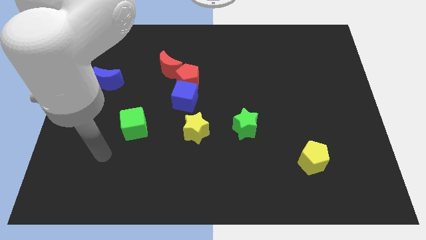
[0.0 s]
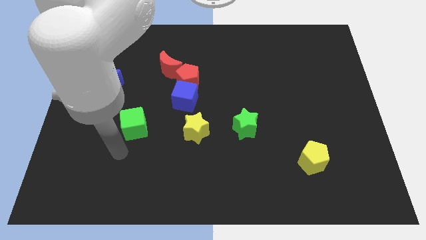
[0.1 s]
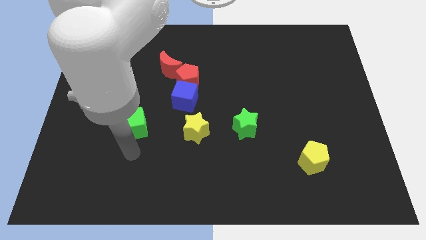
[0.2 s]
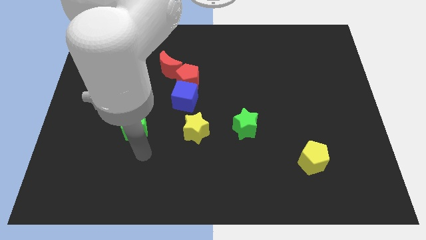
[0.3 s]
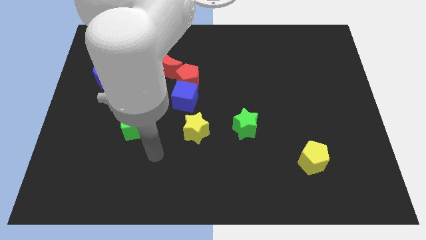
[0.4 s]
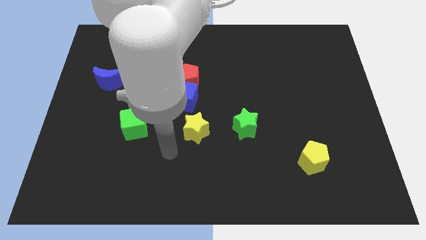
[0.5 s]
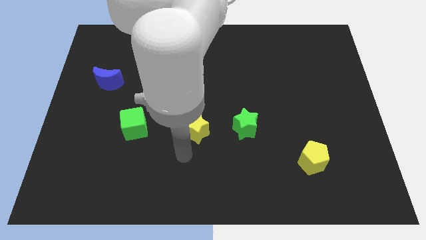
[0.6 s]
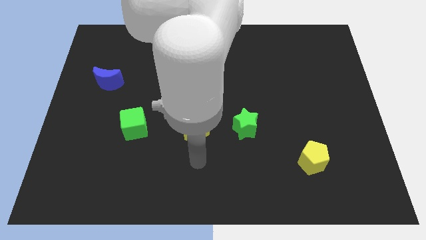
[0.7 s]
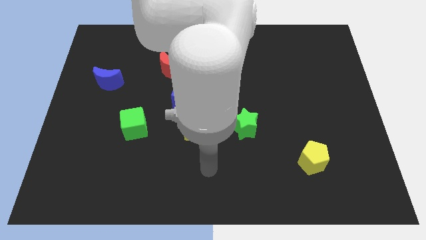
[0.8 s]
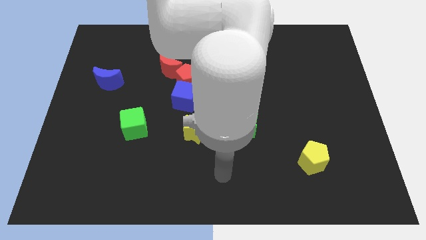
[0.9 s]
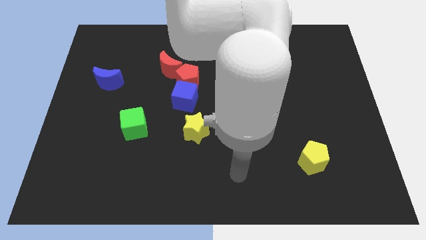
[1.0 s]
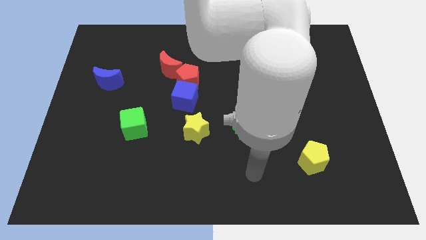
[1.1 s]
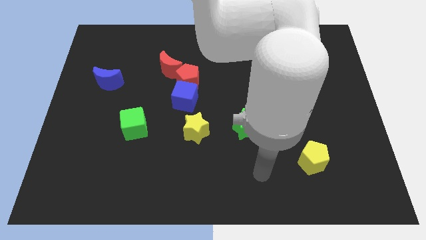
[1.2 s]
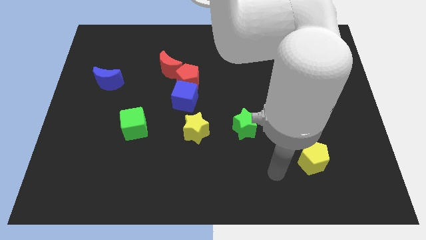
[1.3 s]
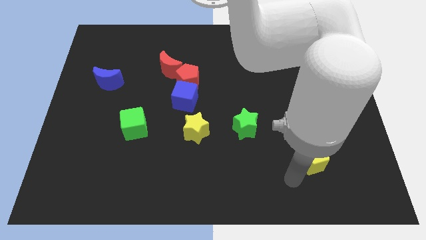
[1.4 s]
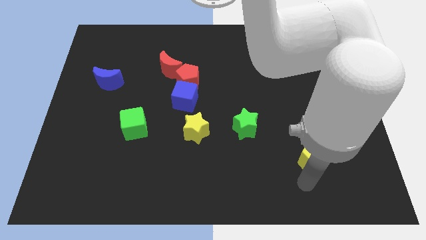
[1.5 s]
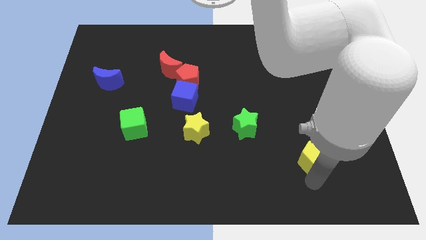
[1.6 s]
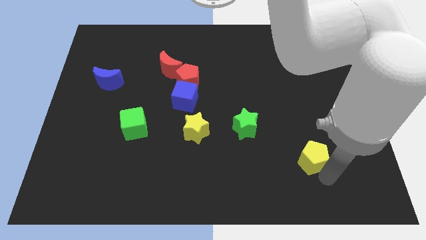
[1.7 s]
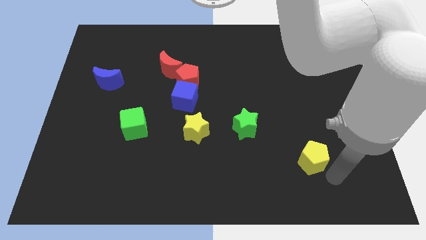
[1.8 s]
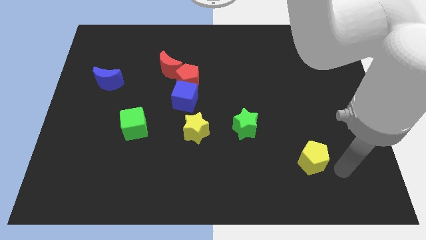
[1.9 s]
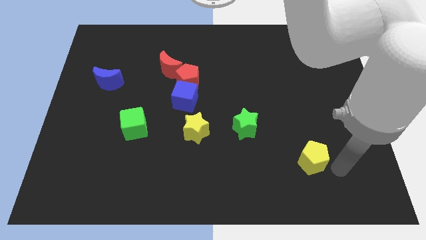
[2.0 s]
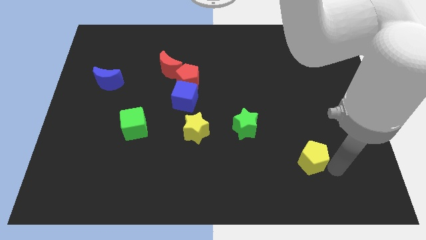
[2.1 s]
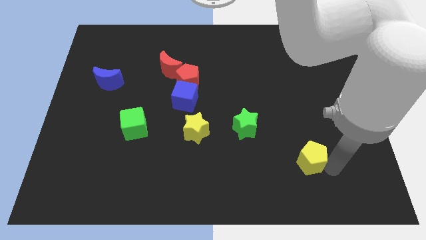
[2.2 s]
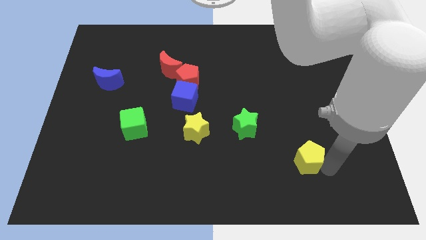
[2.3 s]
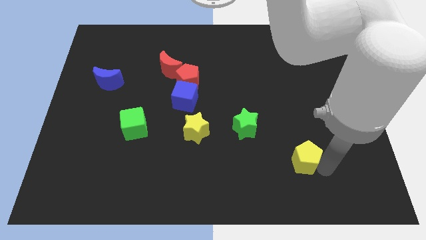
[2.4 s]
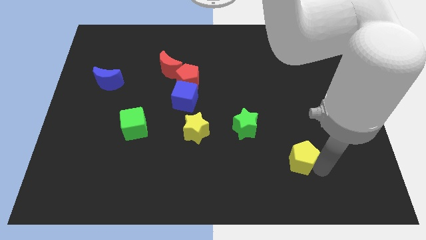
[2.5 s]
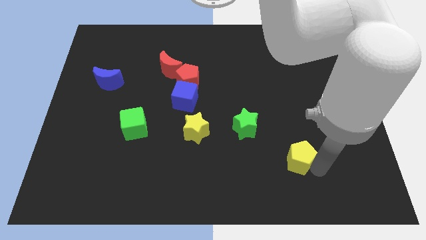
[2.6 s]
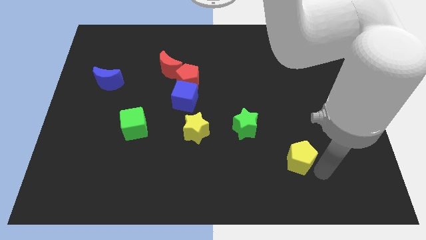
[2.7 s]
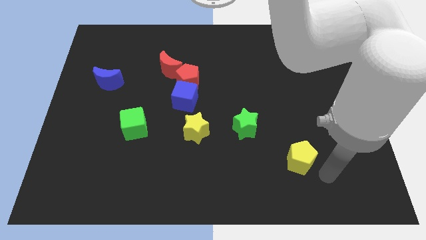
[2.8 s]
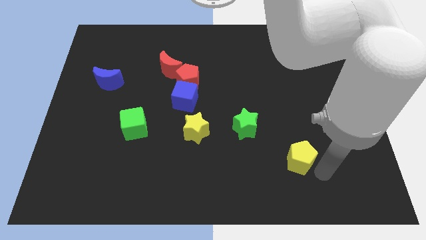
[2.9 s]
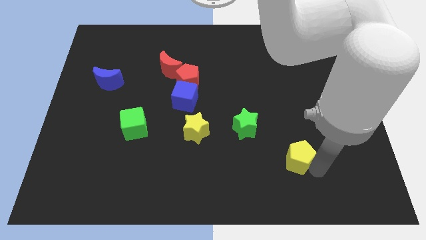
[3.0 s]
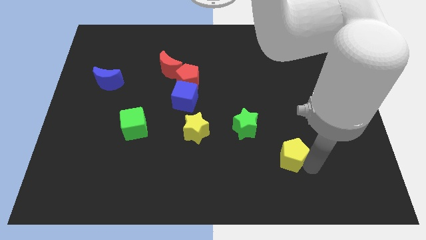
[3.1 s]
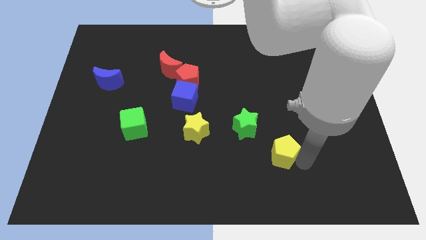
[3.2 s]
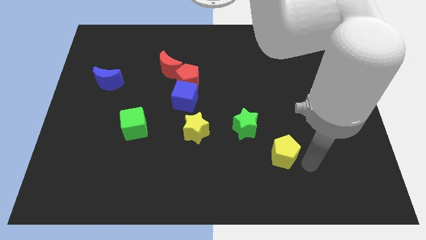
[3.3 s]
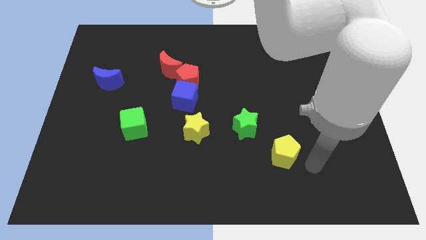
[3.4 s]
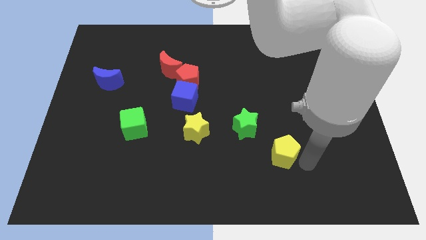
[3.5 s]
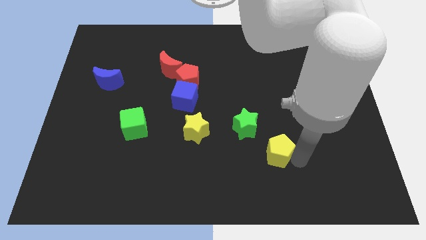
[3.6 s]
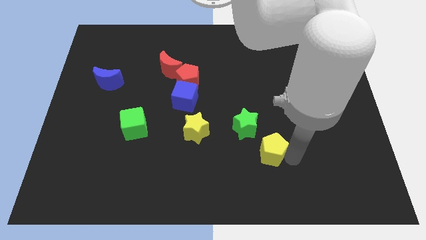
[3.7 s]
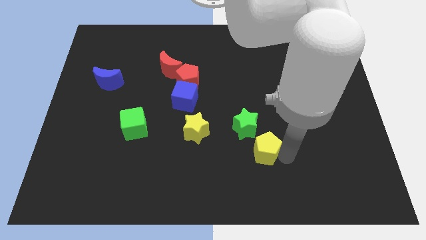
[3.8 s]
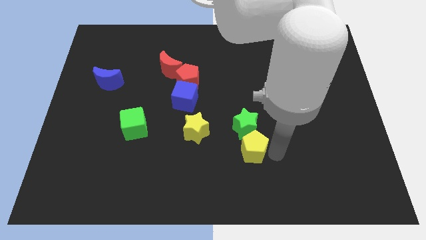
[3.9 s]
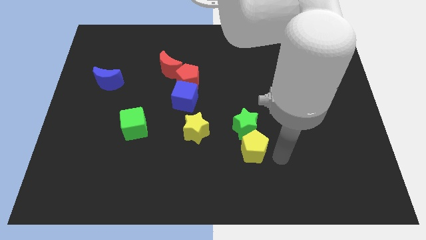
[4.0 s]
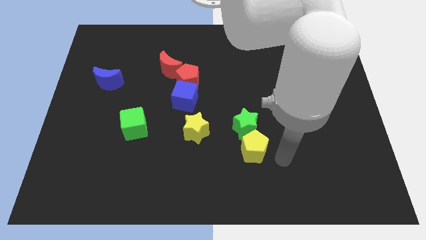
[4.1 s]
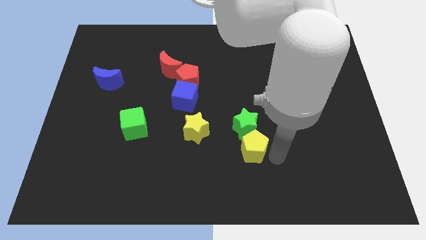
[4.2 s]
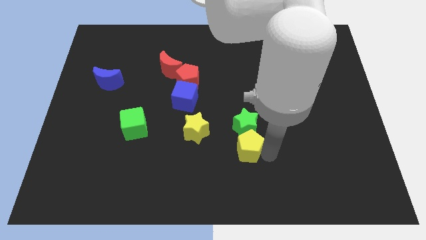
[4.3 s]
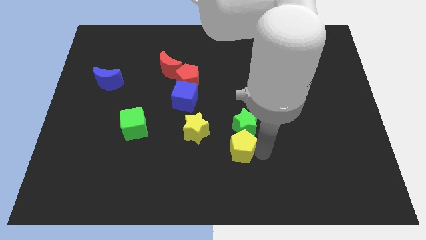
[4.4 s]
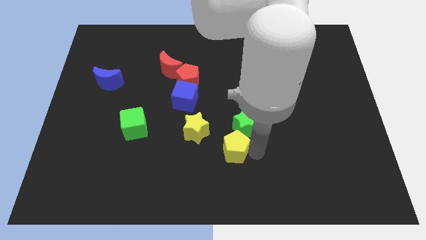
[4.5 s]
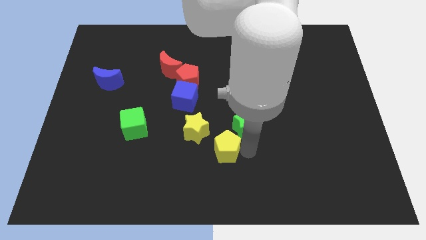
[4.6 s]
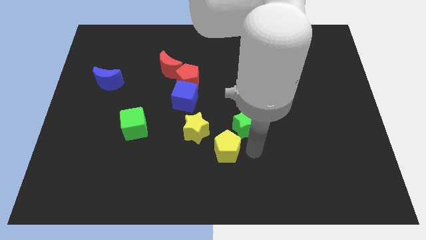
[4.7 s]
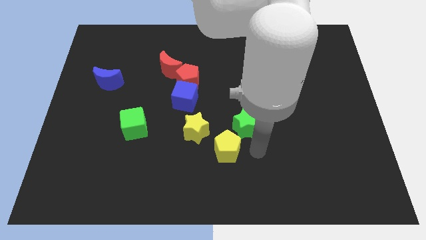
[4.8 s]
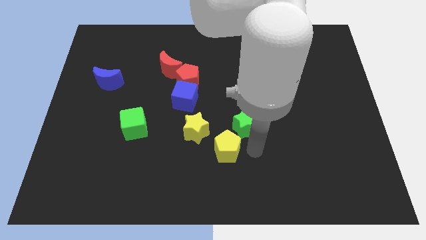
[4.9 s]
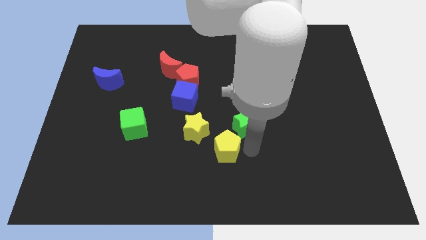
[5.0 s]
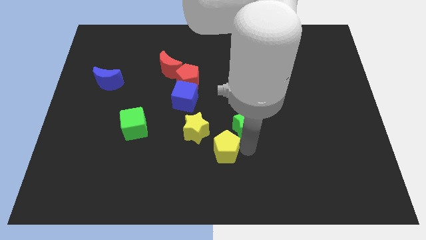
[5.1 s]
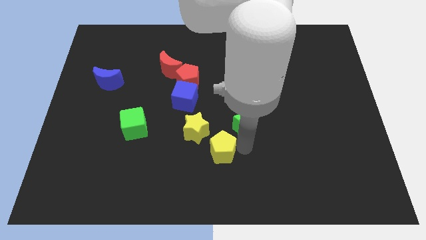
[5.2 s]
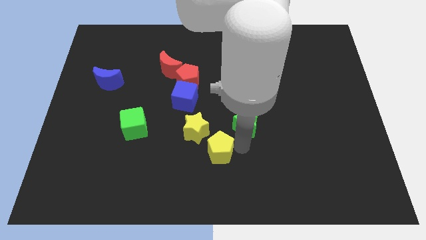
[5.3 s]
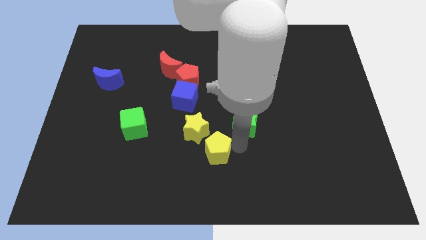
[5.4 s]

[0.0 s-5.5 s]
slide the yellow pentagon to the left

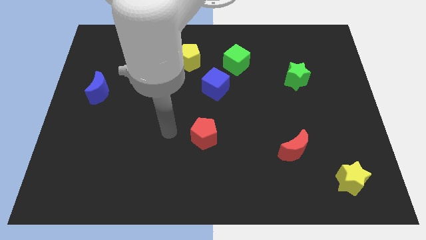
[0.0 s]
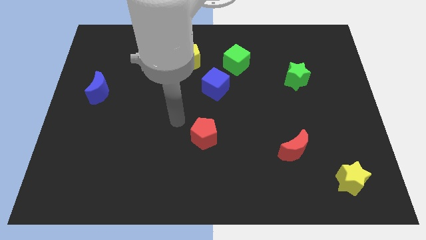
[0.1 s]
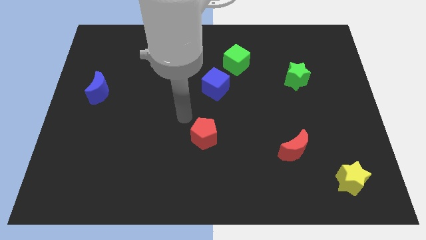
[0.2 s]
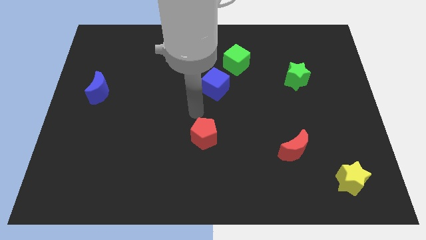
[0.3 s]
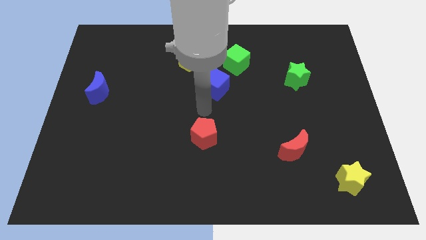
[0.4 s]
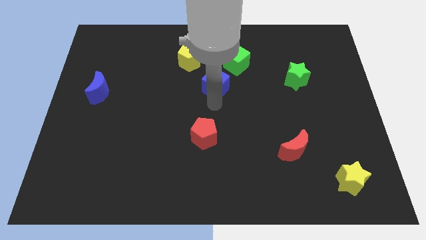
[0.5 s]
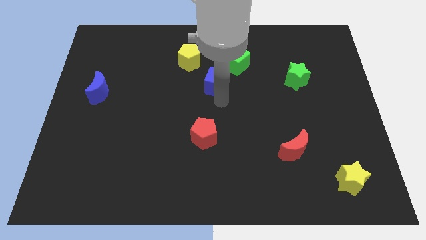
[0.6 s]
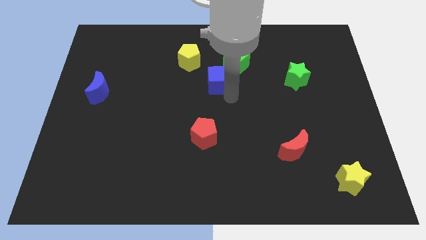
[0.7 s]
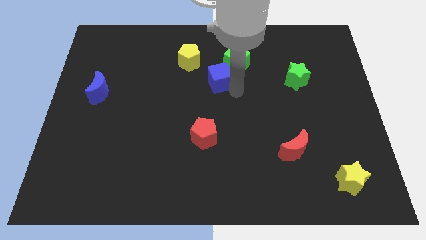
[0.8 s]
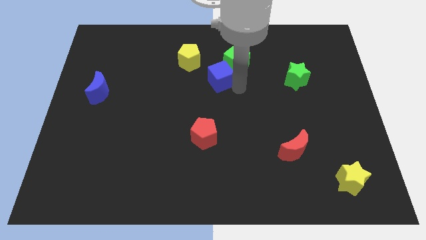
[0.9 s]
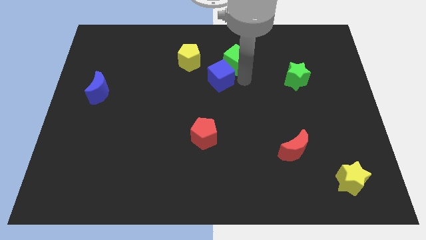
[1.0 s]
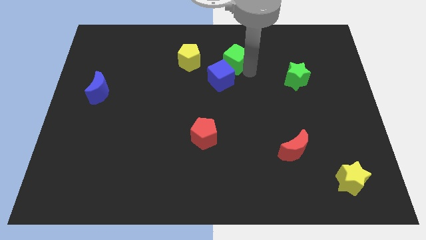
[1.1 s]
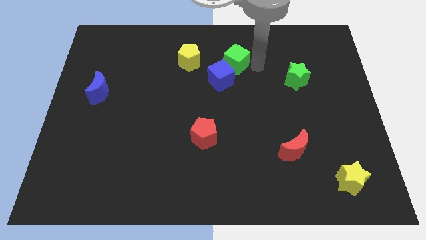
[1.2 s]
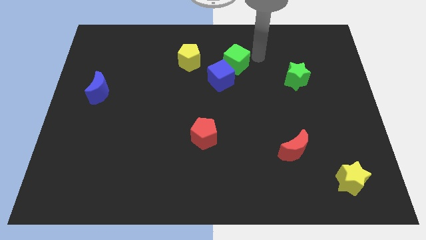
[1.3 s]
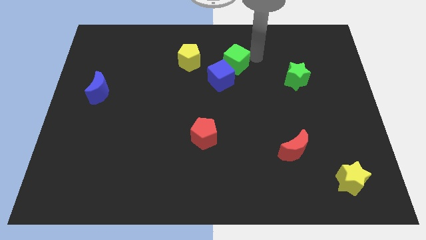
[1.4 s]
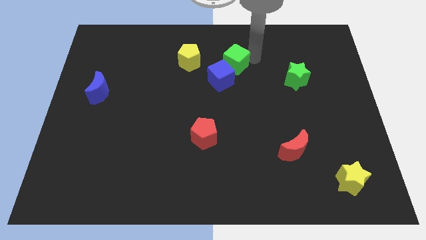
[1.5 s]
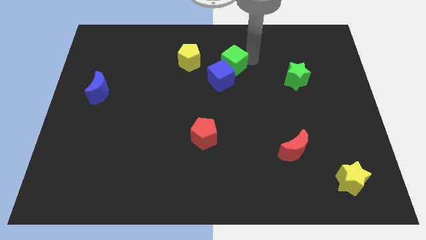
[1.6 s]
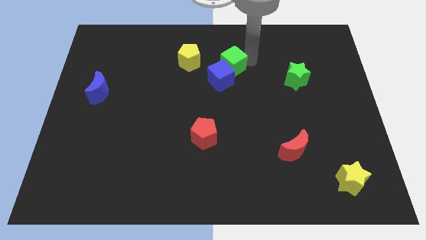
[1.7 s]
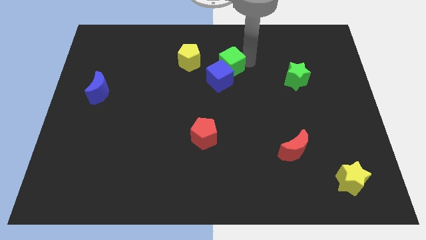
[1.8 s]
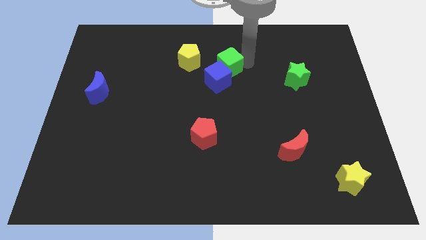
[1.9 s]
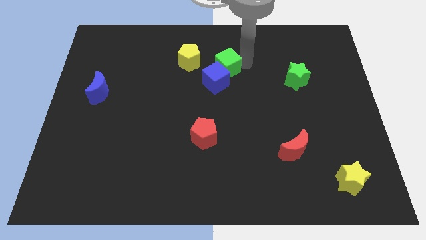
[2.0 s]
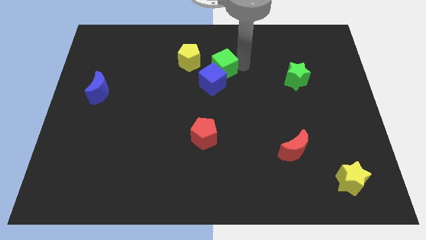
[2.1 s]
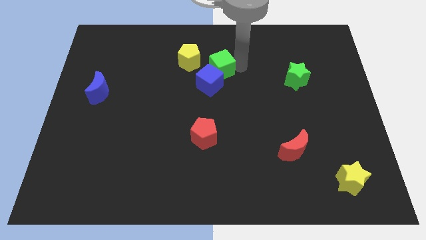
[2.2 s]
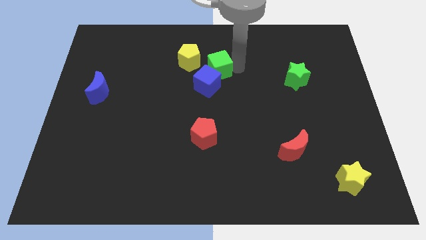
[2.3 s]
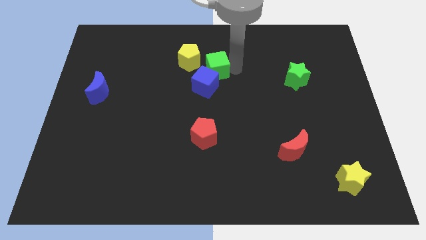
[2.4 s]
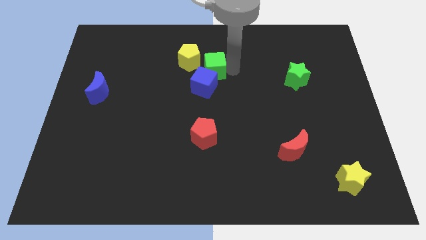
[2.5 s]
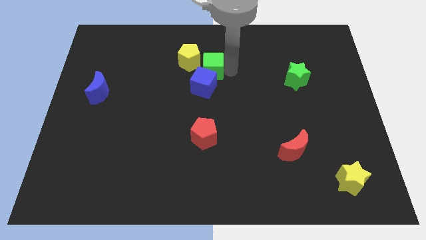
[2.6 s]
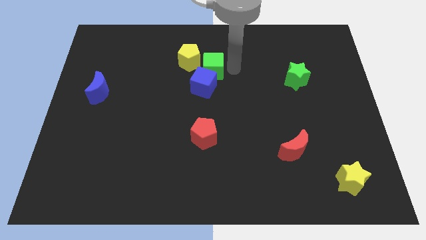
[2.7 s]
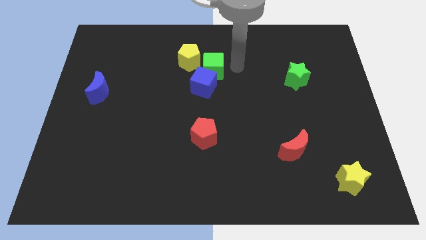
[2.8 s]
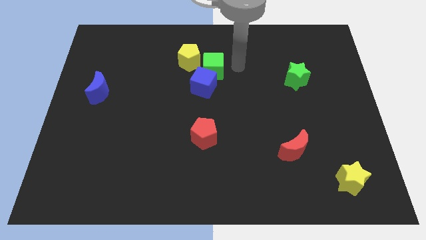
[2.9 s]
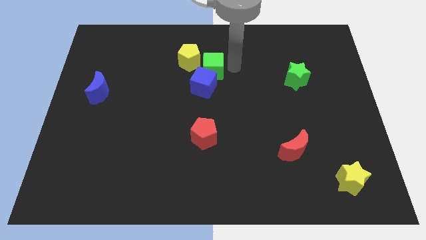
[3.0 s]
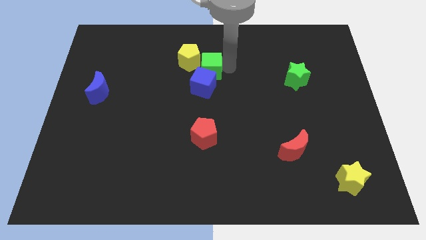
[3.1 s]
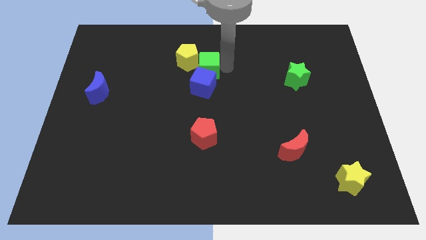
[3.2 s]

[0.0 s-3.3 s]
push the green cube slightly to the left
